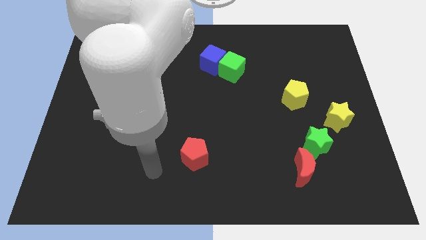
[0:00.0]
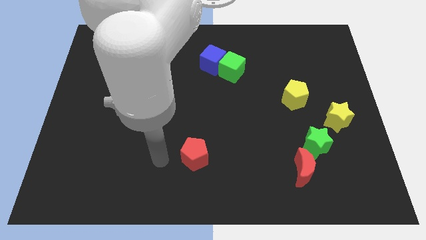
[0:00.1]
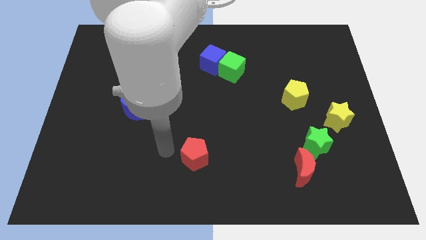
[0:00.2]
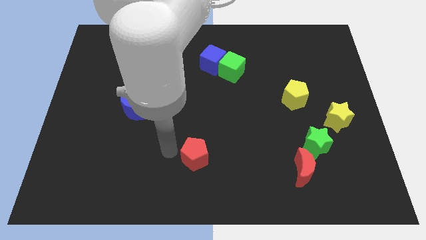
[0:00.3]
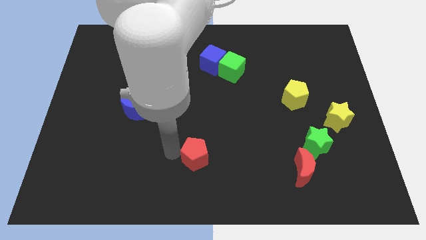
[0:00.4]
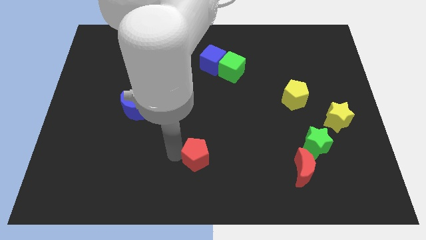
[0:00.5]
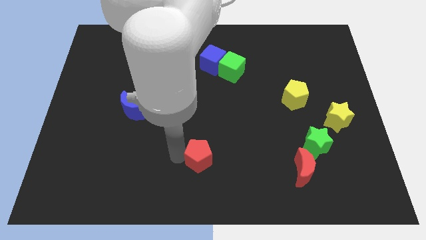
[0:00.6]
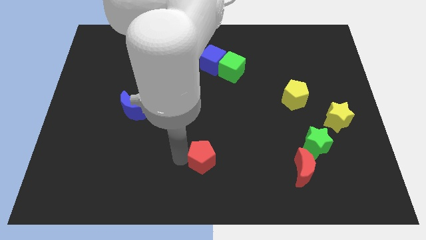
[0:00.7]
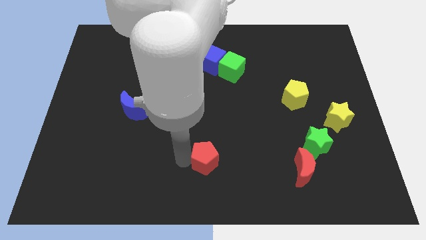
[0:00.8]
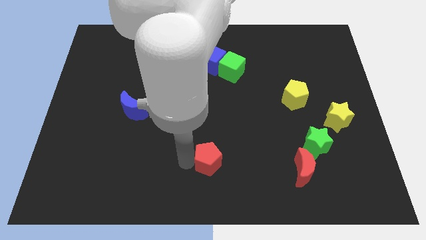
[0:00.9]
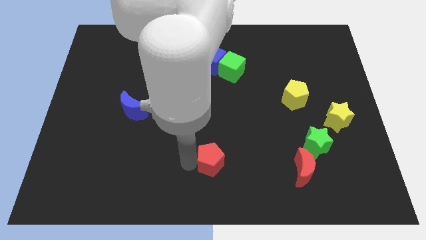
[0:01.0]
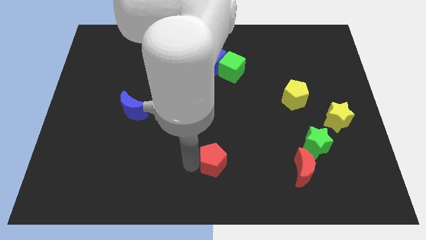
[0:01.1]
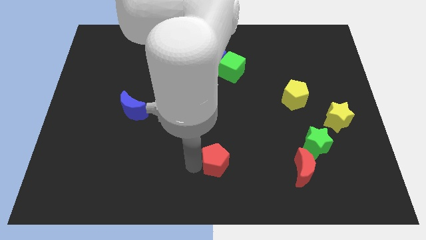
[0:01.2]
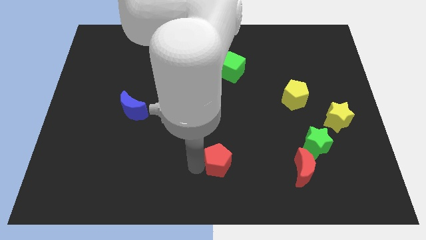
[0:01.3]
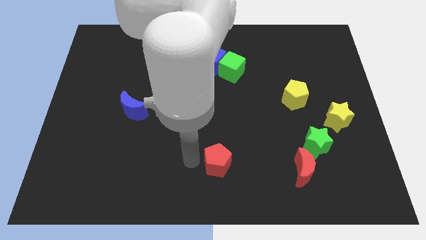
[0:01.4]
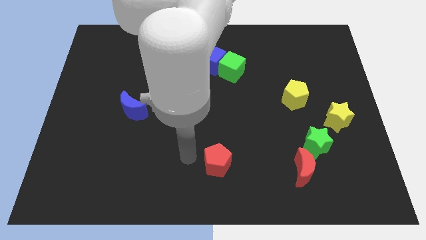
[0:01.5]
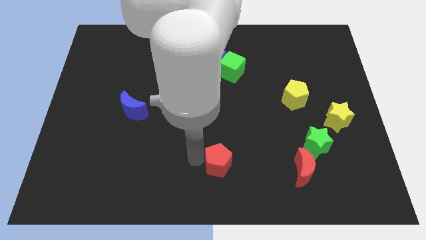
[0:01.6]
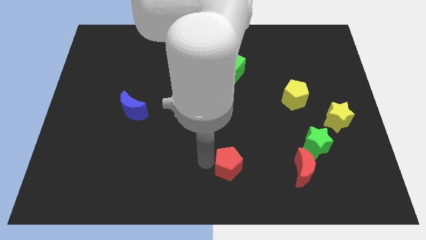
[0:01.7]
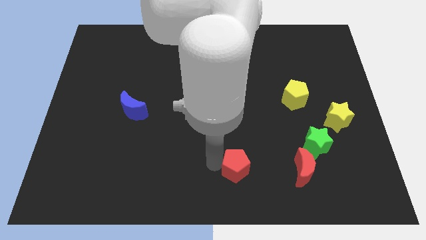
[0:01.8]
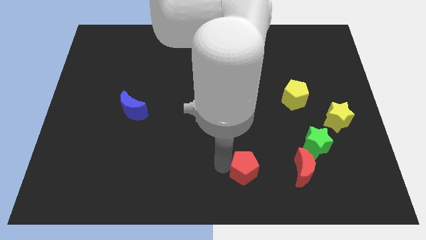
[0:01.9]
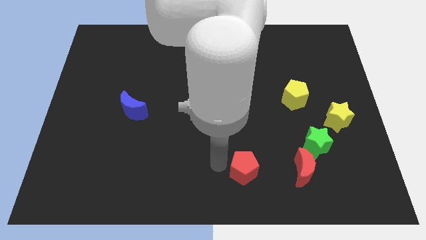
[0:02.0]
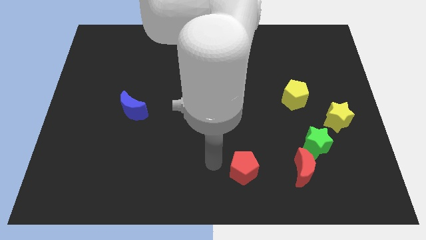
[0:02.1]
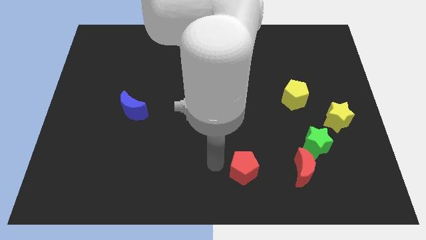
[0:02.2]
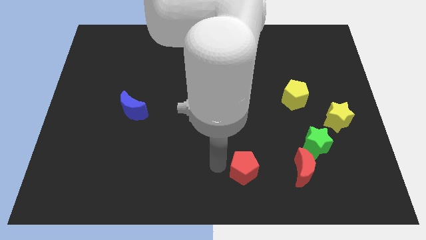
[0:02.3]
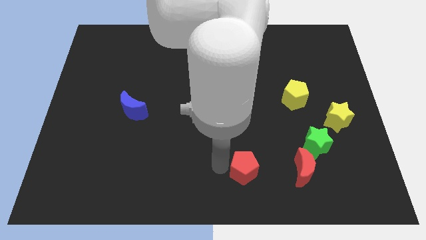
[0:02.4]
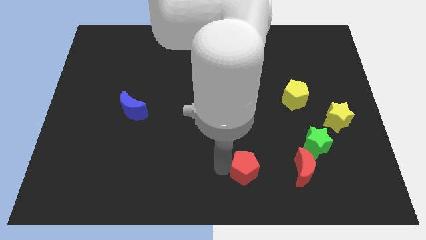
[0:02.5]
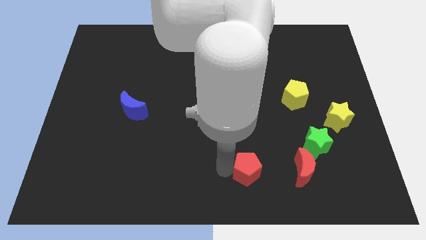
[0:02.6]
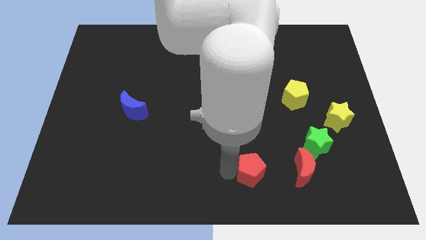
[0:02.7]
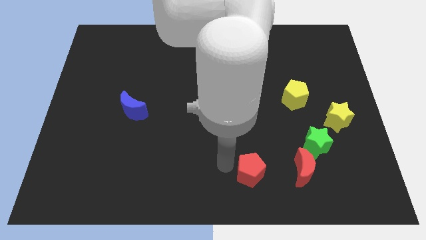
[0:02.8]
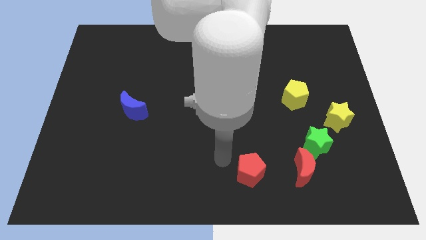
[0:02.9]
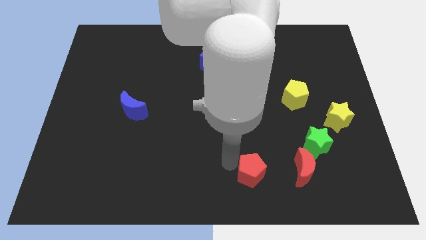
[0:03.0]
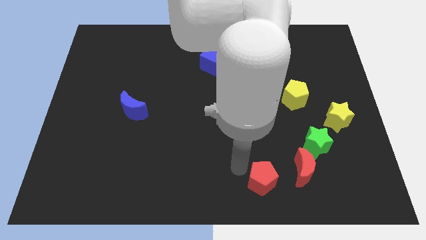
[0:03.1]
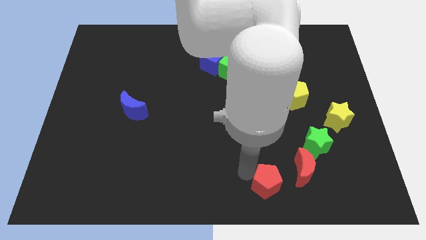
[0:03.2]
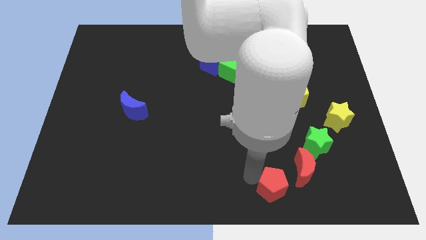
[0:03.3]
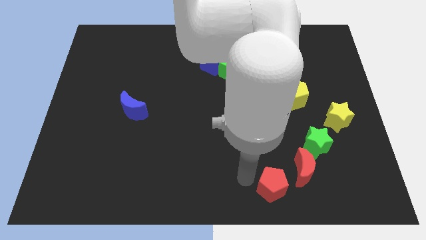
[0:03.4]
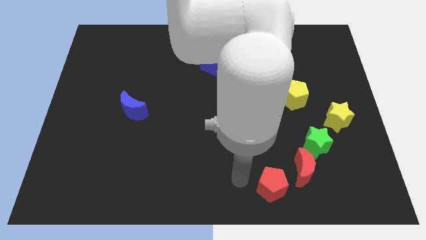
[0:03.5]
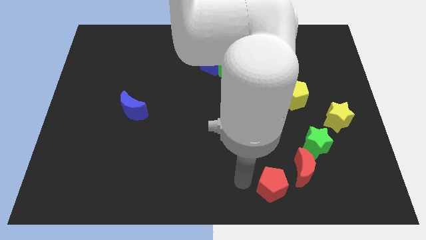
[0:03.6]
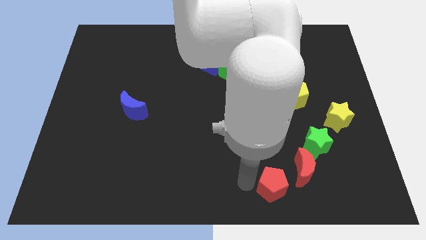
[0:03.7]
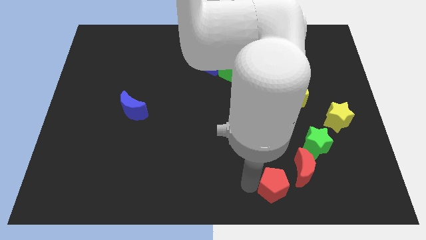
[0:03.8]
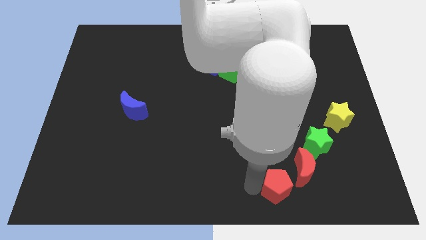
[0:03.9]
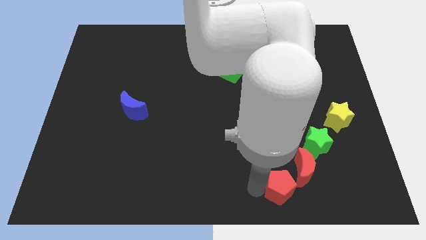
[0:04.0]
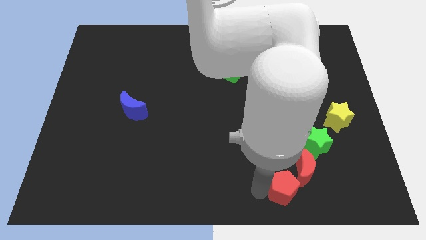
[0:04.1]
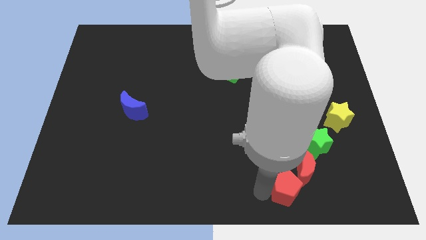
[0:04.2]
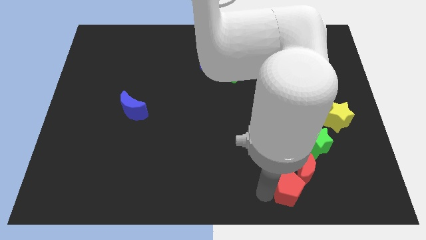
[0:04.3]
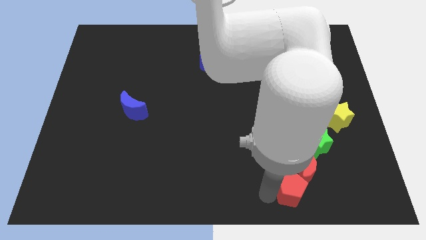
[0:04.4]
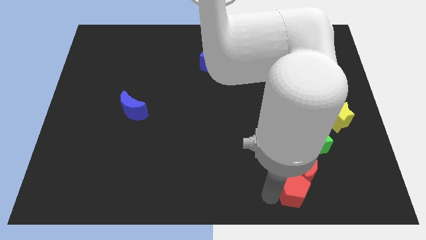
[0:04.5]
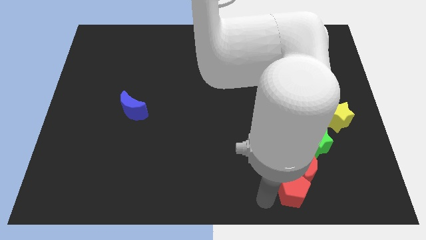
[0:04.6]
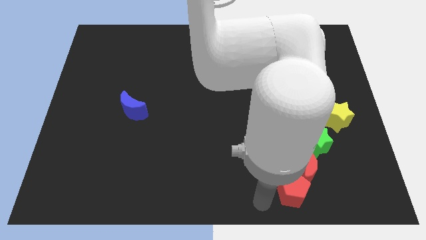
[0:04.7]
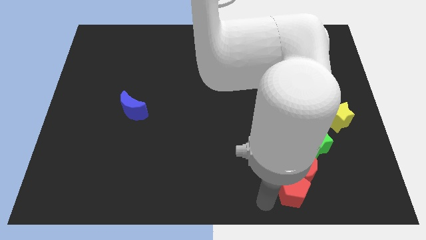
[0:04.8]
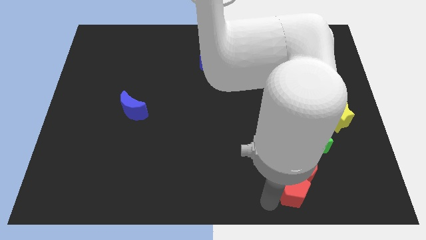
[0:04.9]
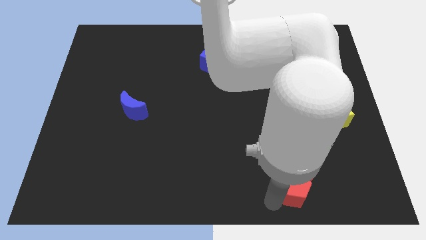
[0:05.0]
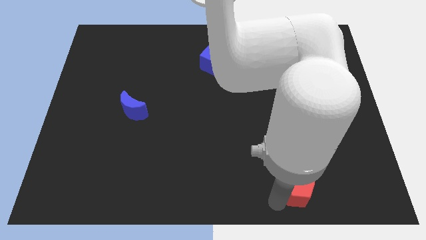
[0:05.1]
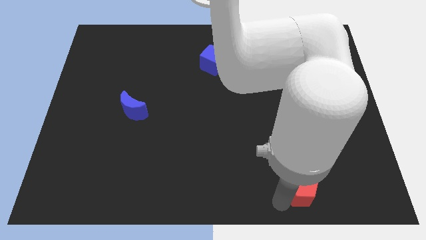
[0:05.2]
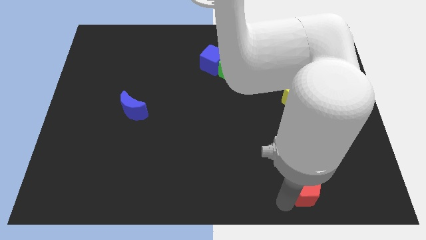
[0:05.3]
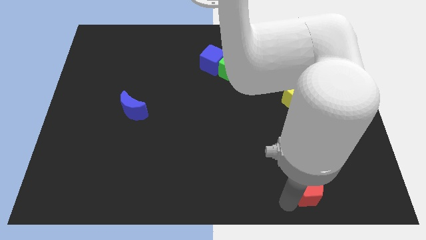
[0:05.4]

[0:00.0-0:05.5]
move the red pentagon right

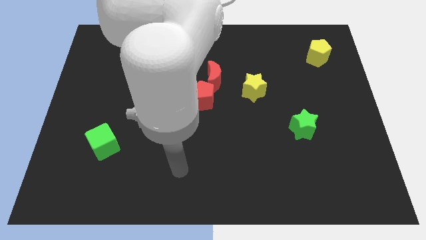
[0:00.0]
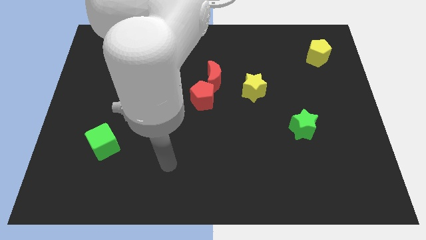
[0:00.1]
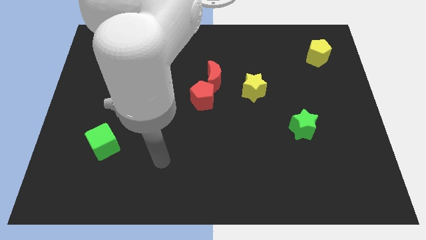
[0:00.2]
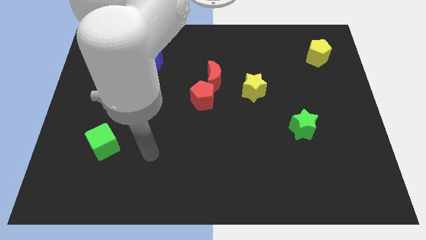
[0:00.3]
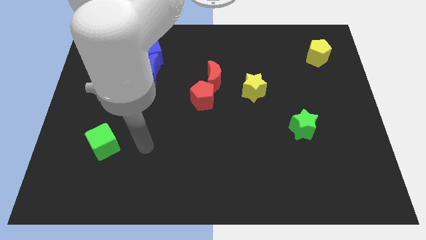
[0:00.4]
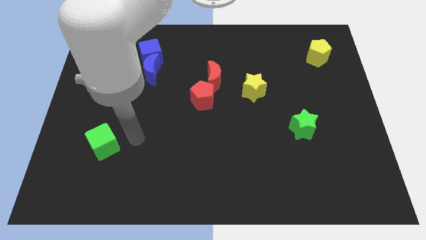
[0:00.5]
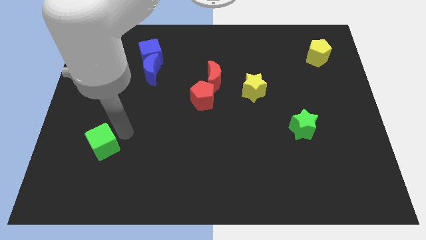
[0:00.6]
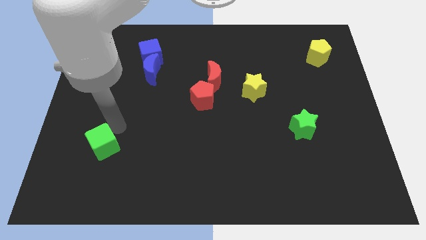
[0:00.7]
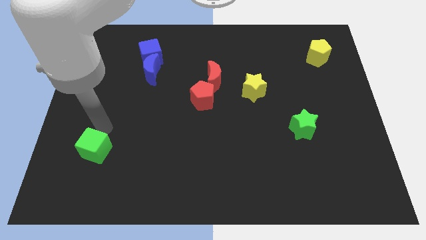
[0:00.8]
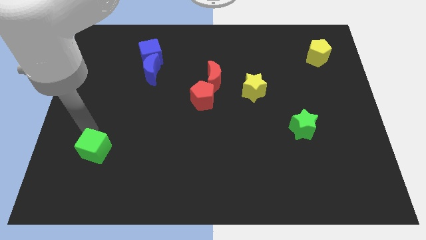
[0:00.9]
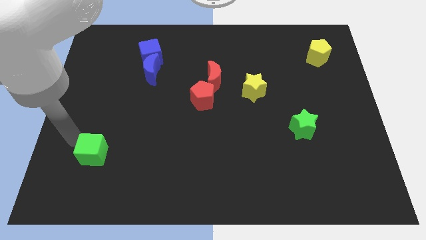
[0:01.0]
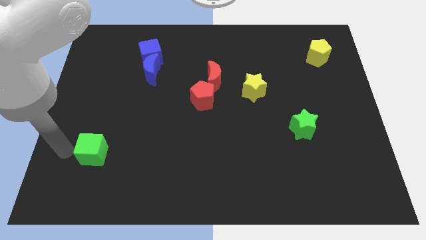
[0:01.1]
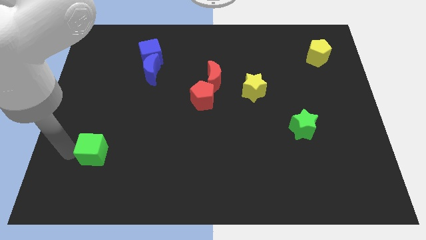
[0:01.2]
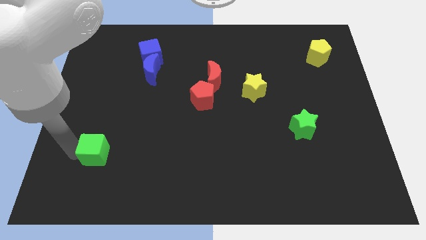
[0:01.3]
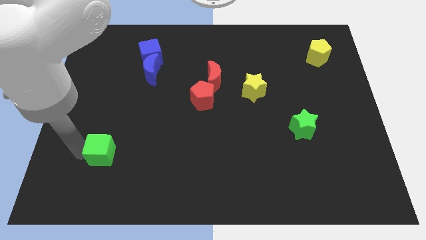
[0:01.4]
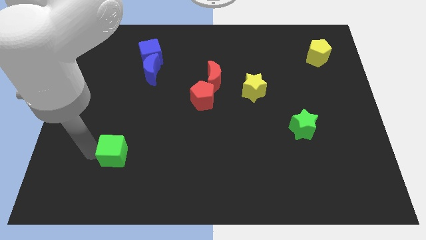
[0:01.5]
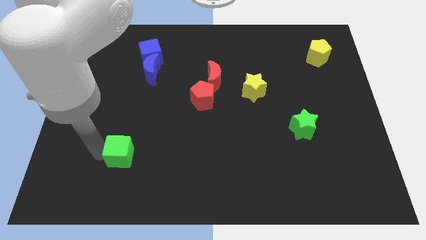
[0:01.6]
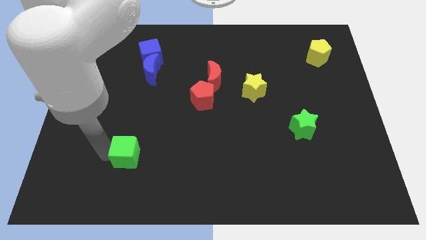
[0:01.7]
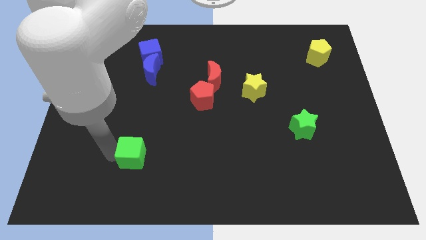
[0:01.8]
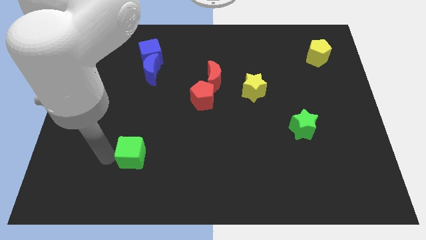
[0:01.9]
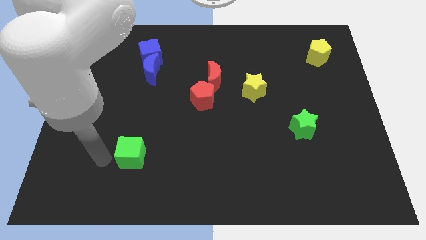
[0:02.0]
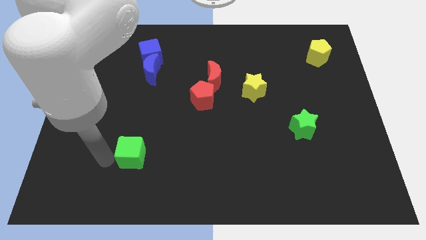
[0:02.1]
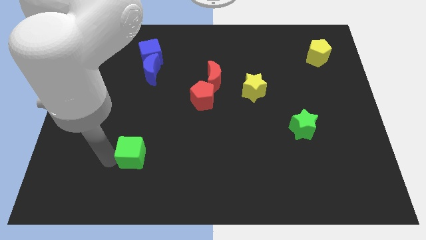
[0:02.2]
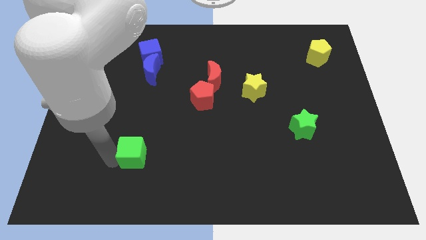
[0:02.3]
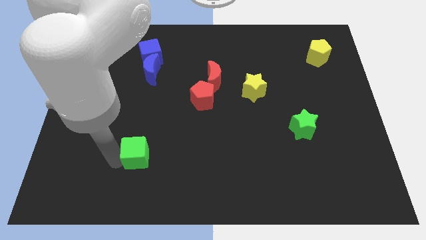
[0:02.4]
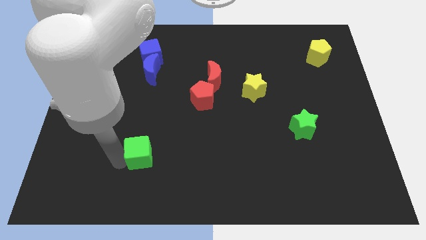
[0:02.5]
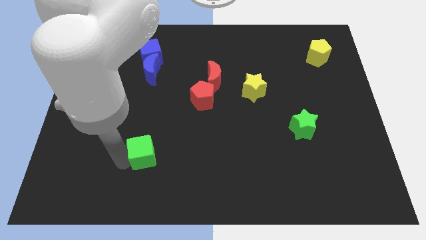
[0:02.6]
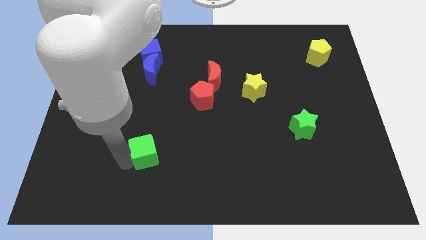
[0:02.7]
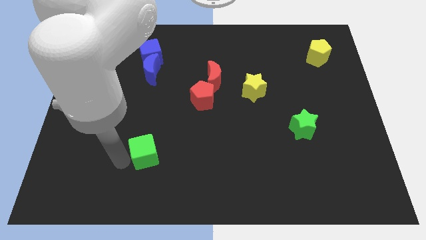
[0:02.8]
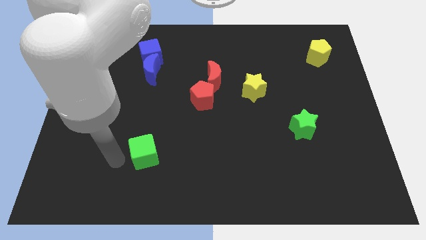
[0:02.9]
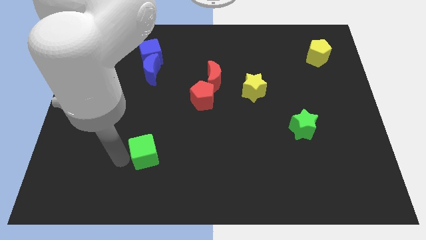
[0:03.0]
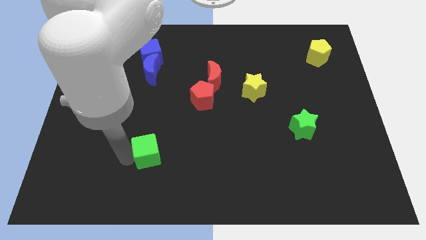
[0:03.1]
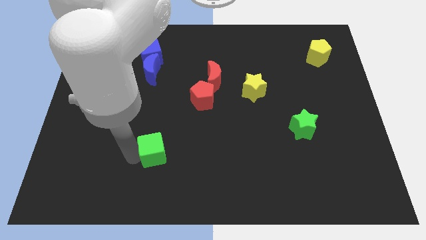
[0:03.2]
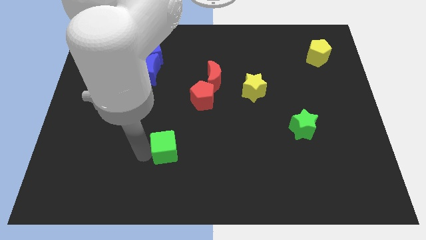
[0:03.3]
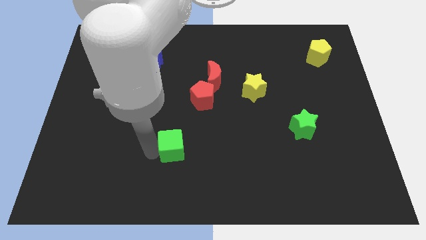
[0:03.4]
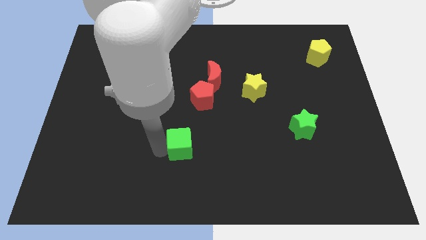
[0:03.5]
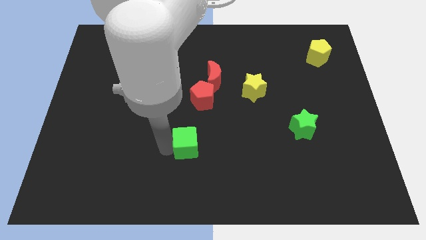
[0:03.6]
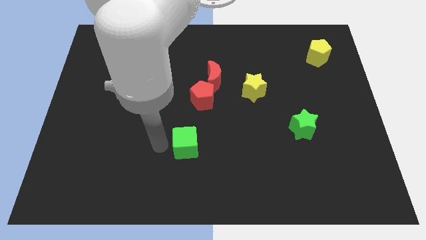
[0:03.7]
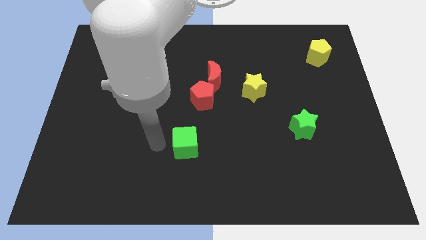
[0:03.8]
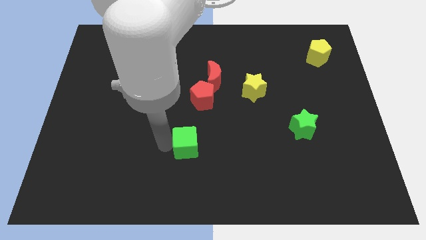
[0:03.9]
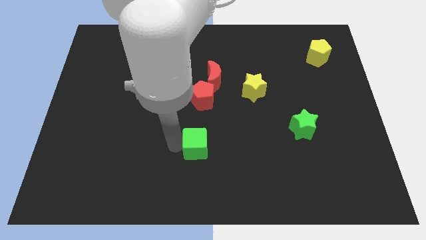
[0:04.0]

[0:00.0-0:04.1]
push the green cube right
